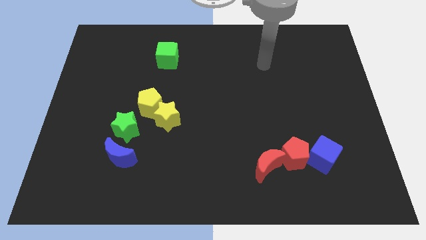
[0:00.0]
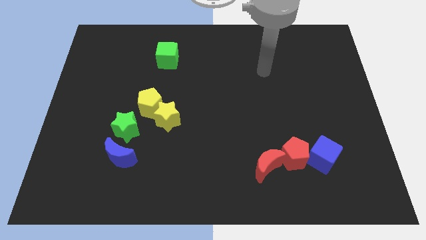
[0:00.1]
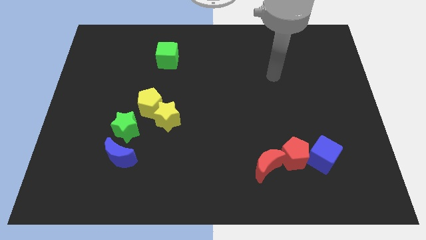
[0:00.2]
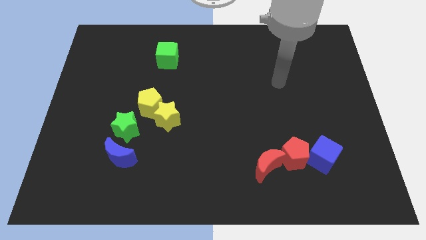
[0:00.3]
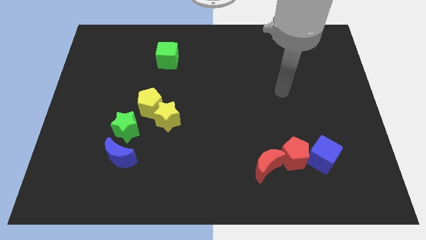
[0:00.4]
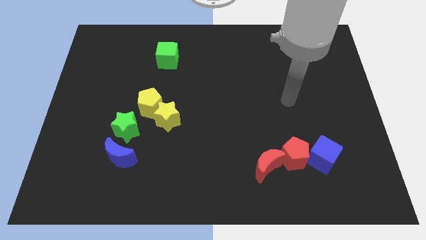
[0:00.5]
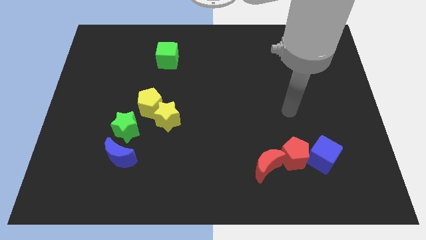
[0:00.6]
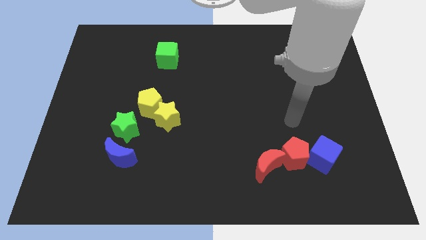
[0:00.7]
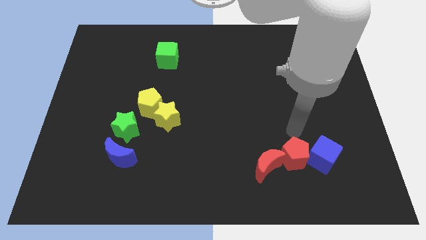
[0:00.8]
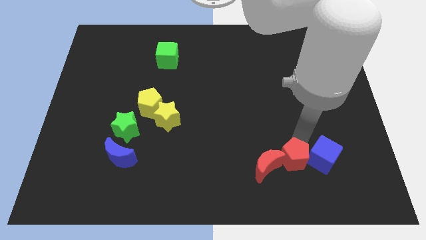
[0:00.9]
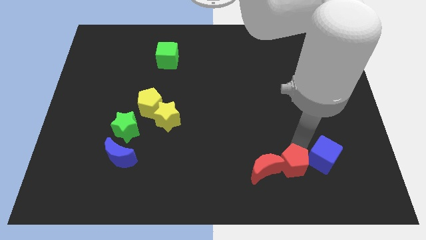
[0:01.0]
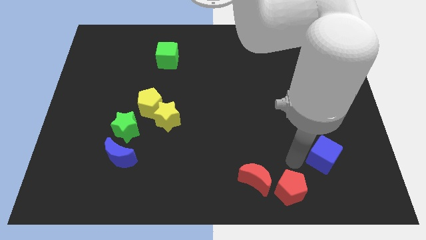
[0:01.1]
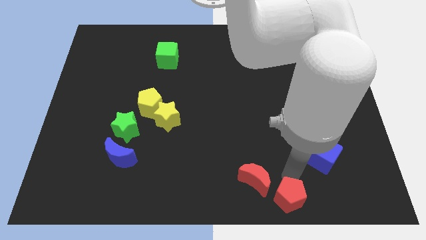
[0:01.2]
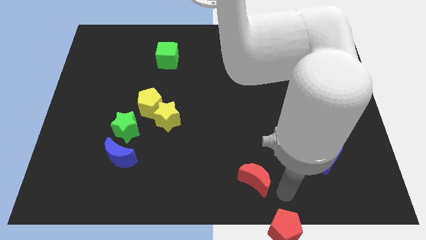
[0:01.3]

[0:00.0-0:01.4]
separate the red moon from the red pentagon

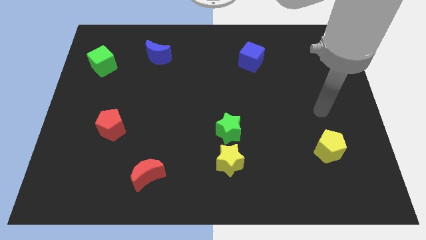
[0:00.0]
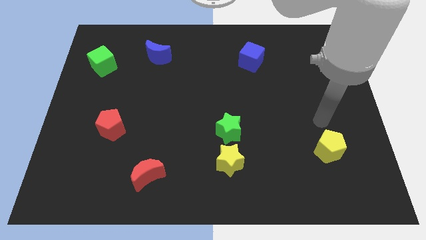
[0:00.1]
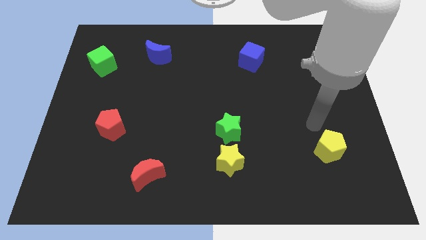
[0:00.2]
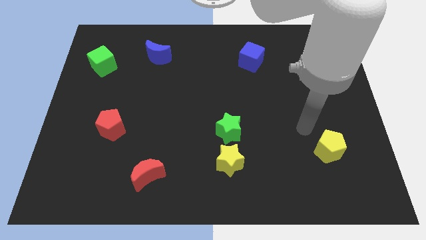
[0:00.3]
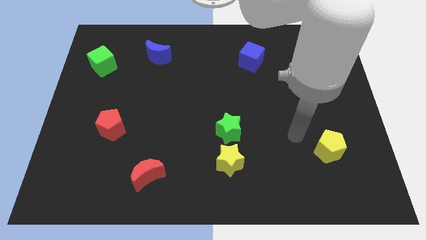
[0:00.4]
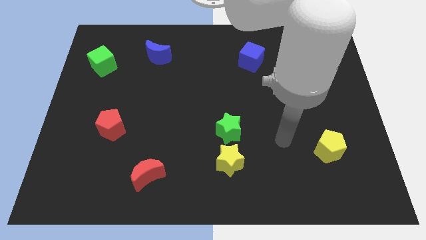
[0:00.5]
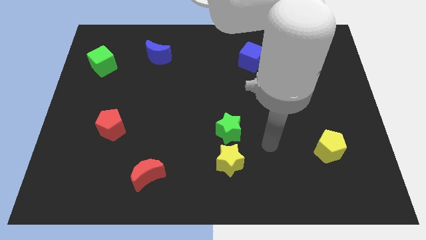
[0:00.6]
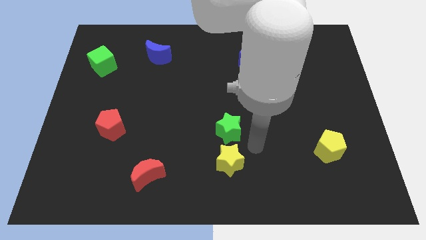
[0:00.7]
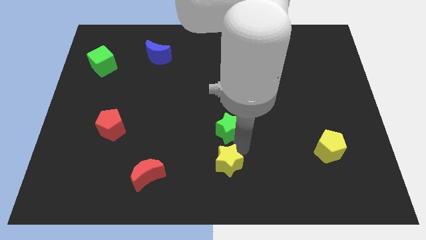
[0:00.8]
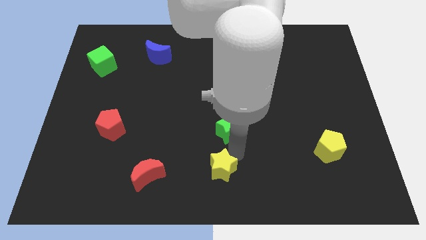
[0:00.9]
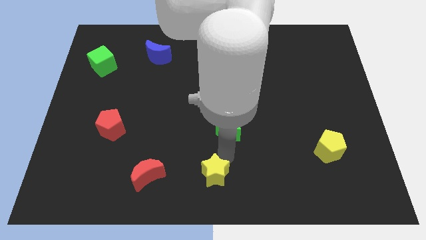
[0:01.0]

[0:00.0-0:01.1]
separate the green star from the yellow star

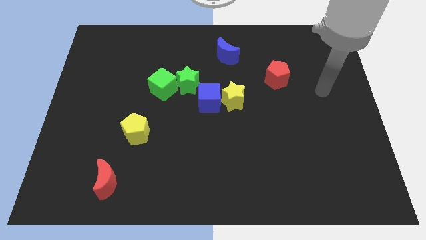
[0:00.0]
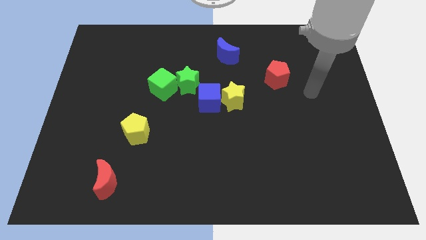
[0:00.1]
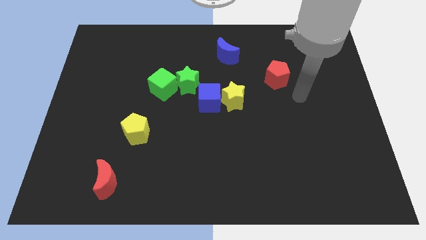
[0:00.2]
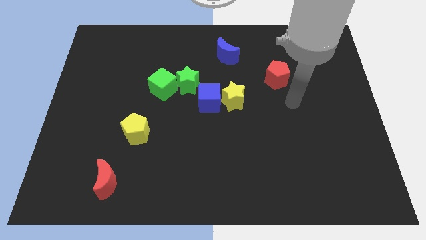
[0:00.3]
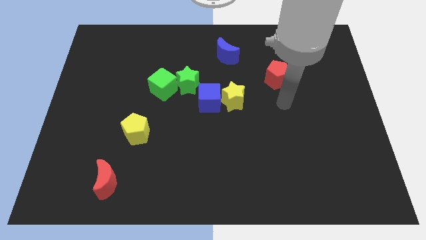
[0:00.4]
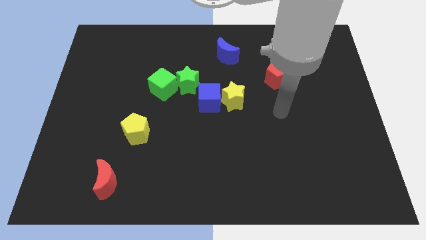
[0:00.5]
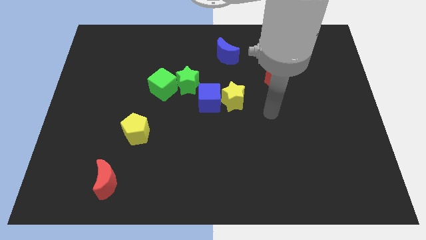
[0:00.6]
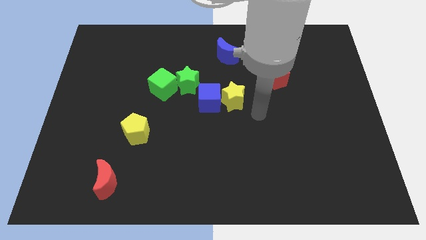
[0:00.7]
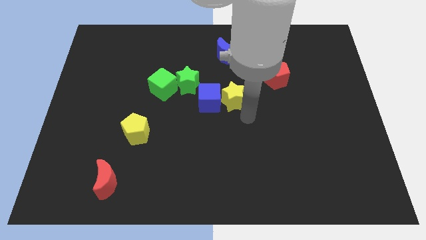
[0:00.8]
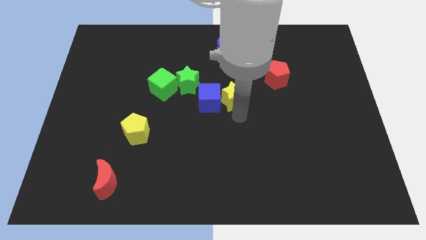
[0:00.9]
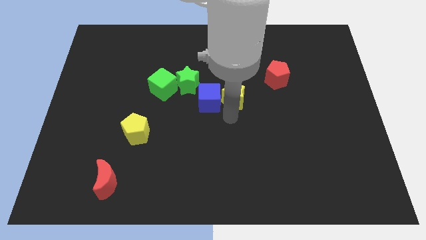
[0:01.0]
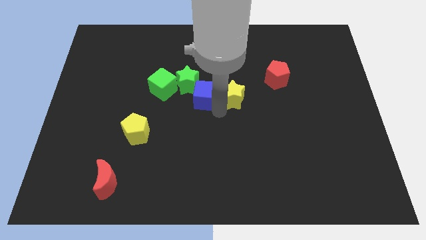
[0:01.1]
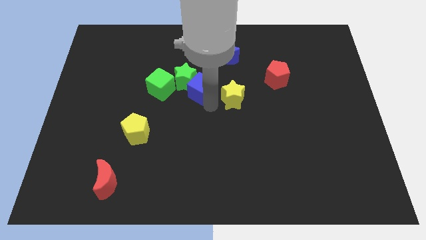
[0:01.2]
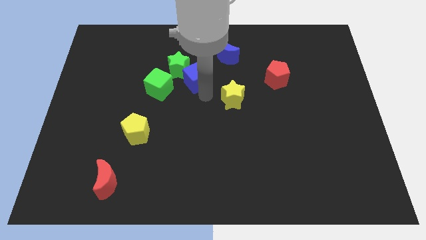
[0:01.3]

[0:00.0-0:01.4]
pull the yellow star apart from the blue cube

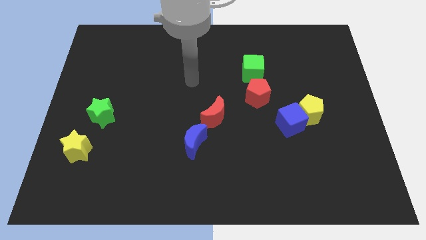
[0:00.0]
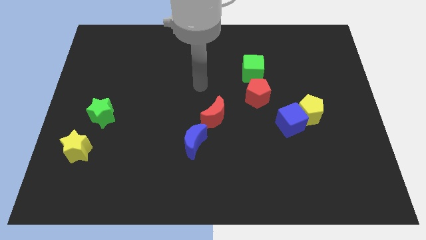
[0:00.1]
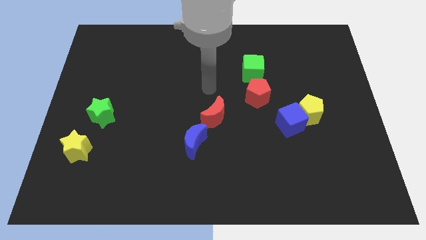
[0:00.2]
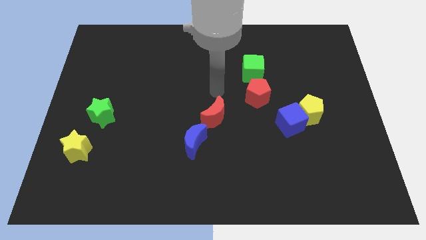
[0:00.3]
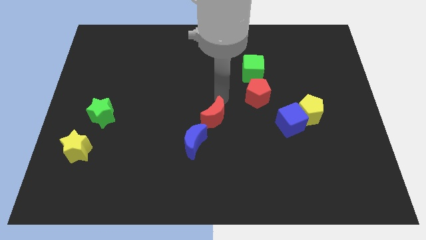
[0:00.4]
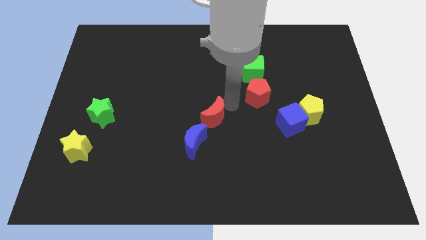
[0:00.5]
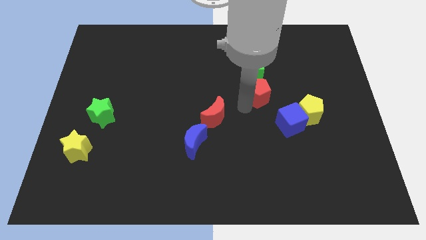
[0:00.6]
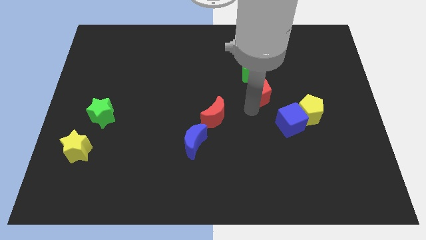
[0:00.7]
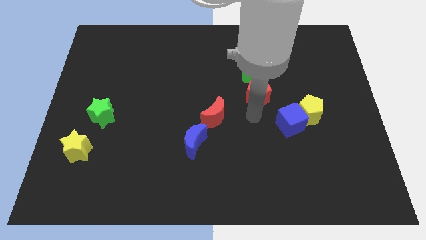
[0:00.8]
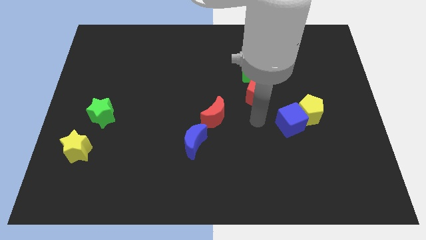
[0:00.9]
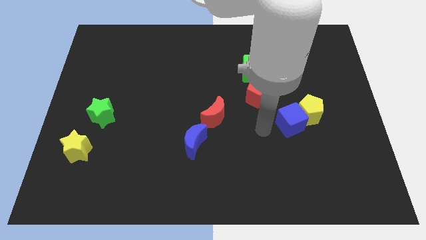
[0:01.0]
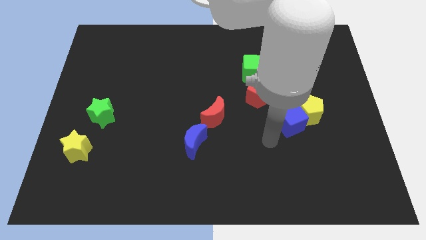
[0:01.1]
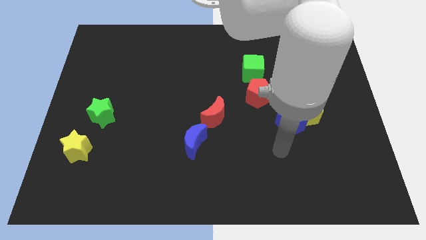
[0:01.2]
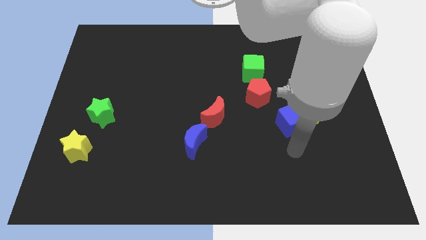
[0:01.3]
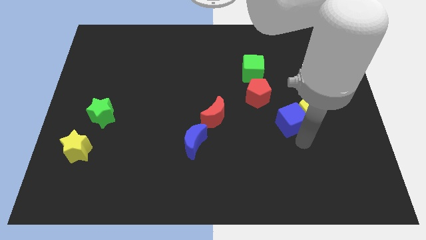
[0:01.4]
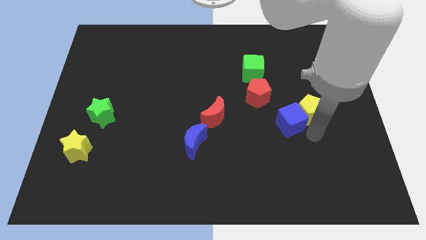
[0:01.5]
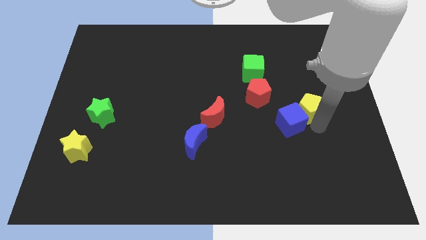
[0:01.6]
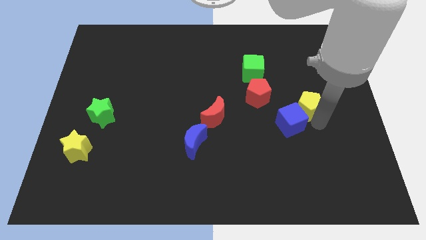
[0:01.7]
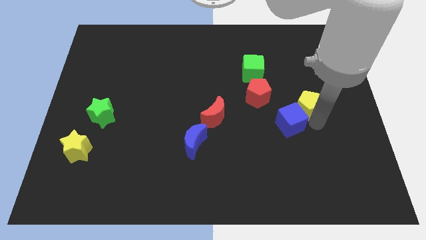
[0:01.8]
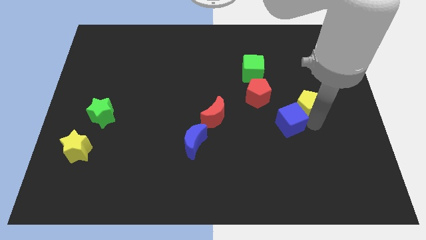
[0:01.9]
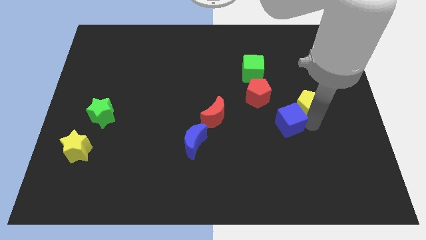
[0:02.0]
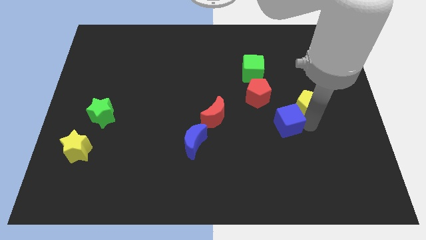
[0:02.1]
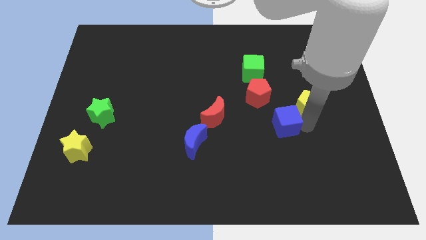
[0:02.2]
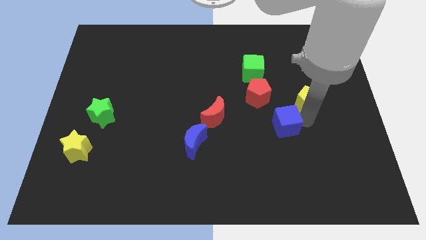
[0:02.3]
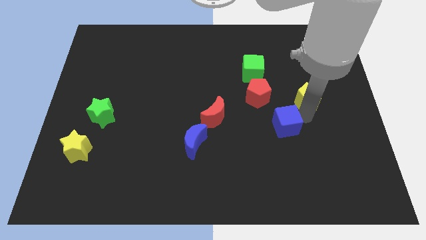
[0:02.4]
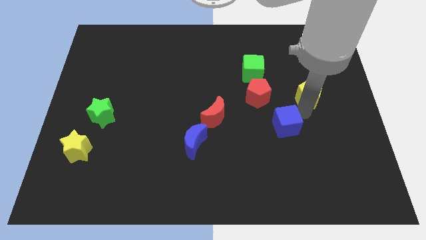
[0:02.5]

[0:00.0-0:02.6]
pull the blue cube apart from the yellow pentagon

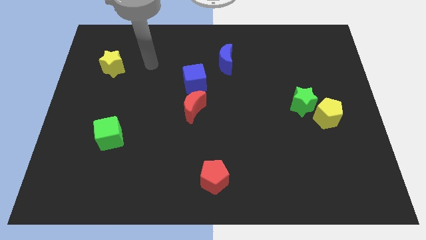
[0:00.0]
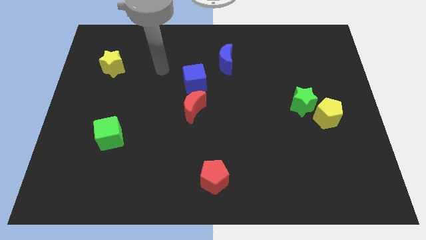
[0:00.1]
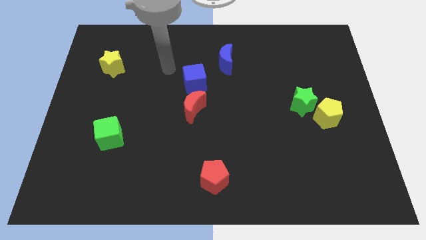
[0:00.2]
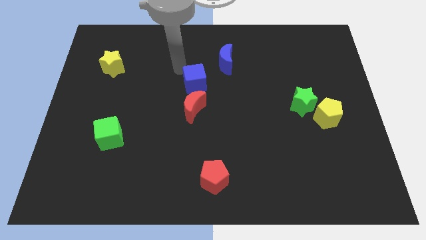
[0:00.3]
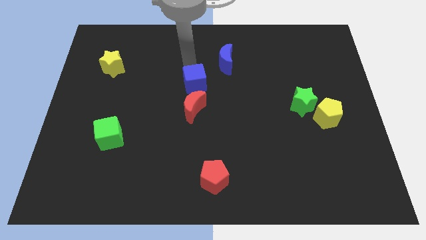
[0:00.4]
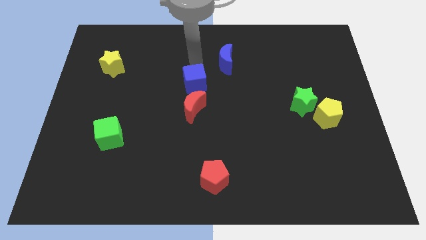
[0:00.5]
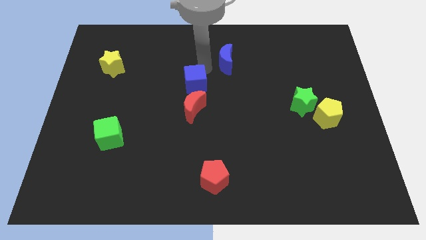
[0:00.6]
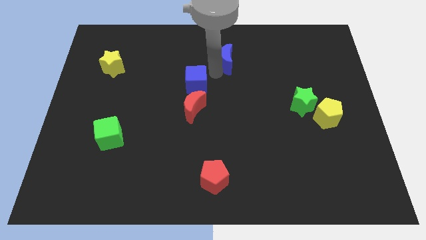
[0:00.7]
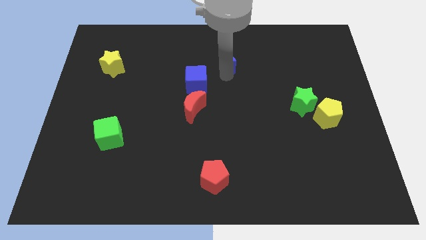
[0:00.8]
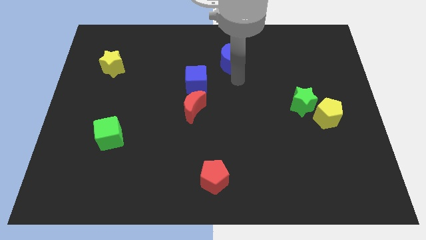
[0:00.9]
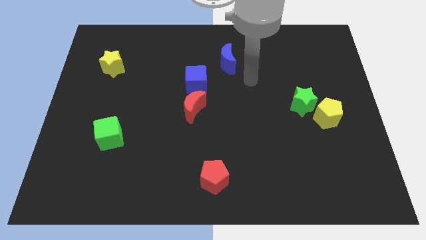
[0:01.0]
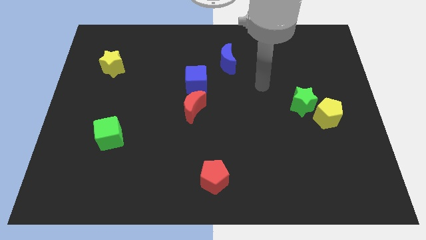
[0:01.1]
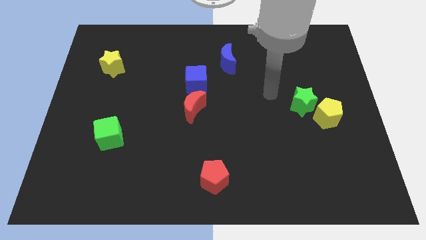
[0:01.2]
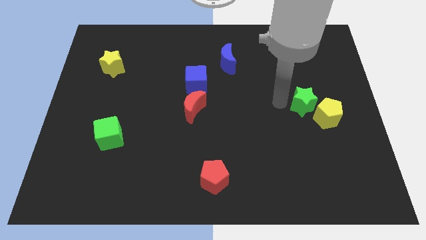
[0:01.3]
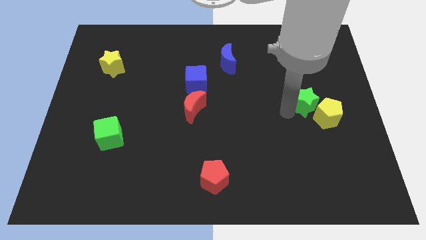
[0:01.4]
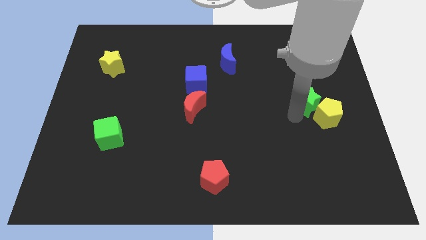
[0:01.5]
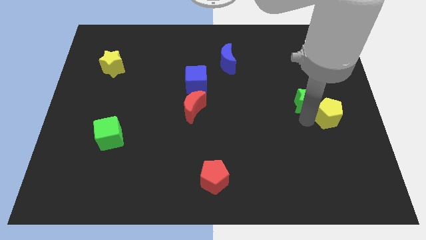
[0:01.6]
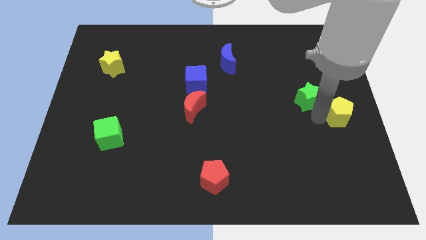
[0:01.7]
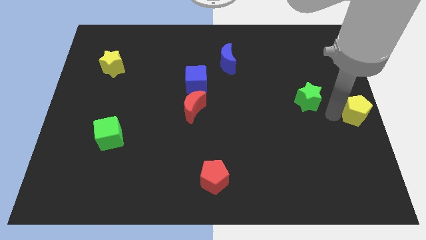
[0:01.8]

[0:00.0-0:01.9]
move the green star away from the yellow pentagon

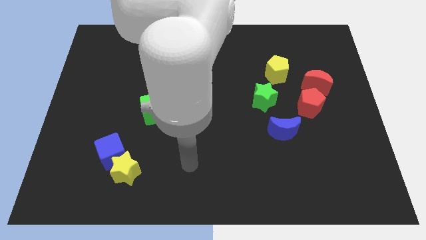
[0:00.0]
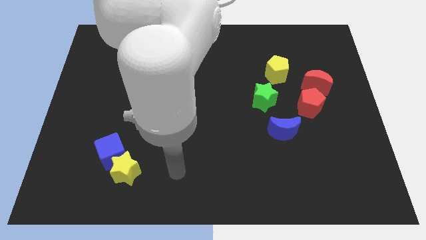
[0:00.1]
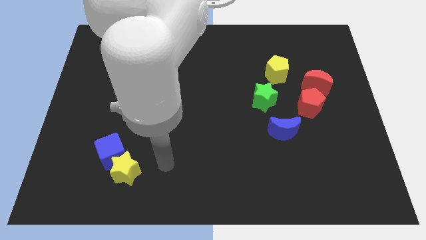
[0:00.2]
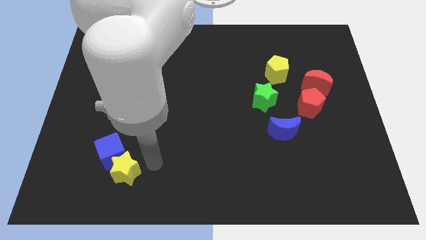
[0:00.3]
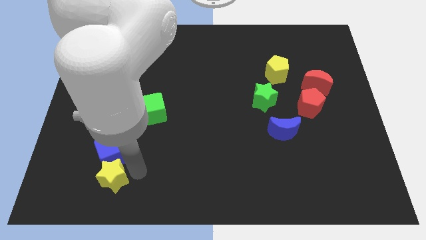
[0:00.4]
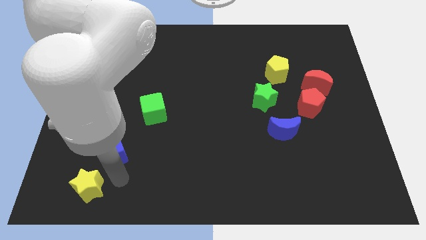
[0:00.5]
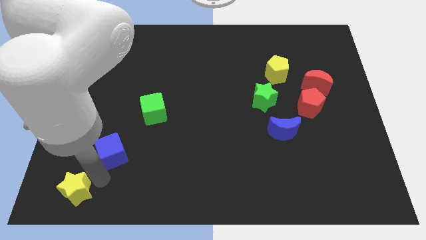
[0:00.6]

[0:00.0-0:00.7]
move the blue cube away from the yellow star

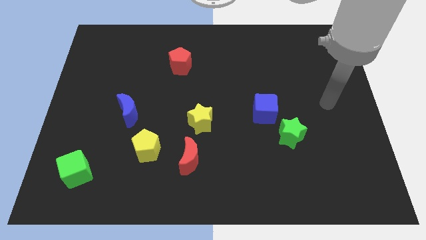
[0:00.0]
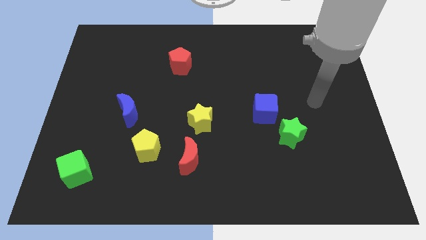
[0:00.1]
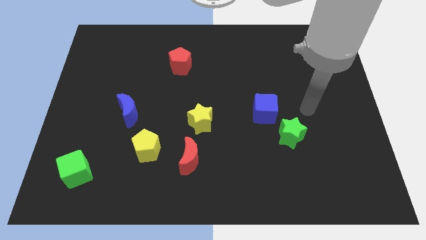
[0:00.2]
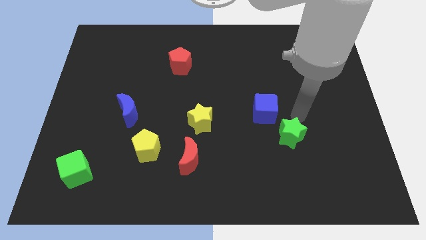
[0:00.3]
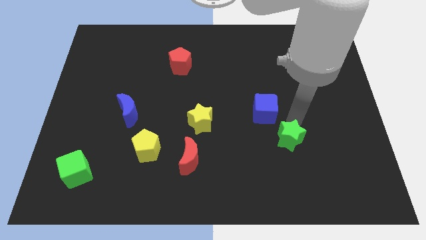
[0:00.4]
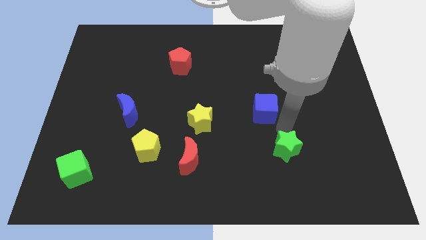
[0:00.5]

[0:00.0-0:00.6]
separate the blue cube from the green star
